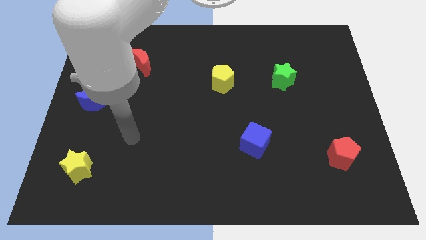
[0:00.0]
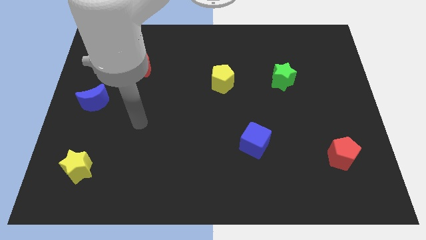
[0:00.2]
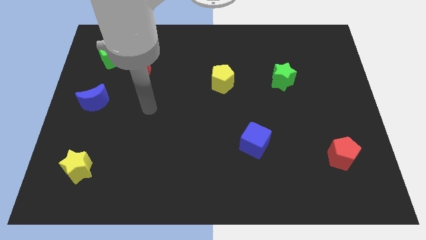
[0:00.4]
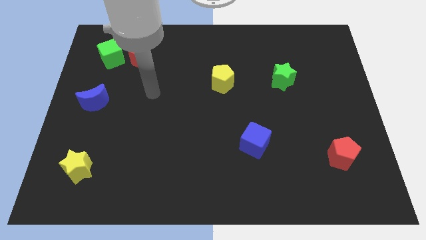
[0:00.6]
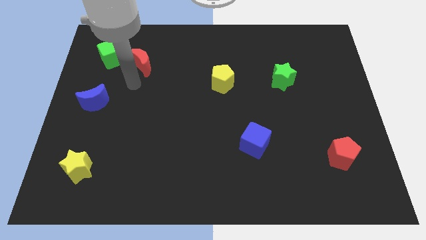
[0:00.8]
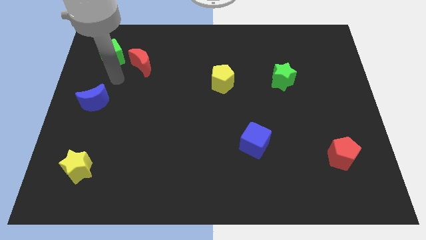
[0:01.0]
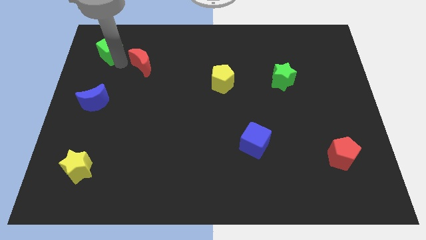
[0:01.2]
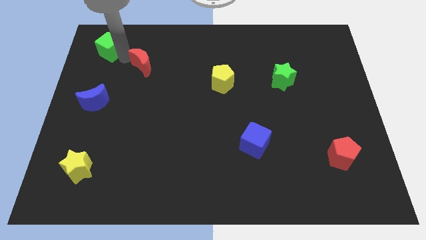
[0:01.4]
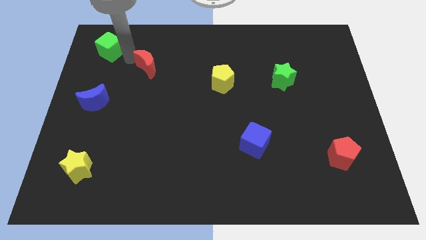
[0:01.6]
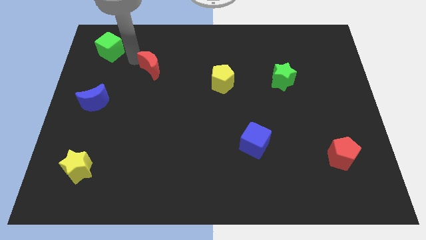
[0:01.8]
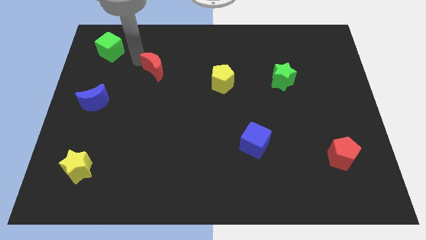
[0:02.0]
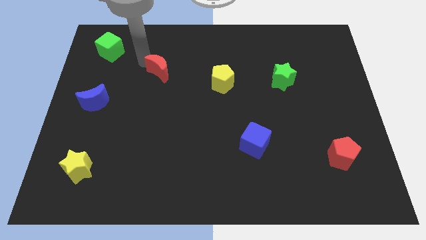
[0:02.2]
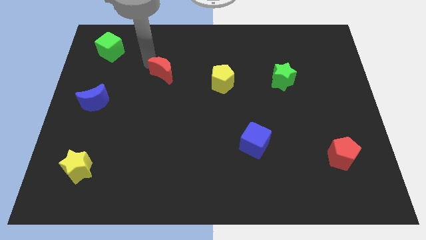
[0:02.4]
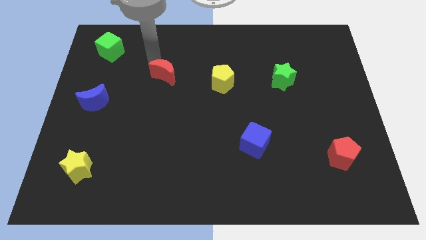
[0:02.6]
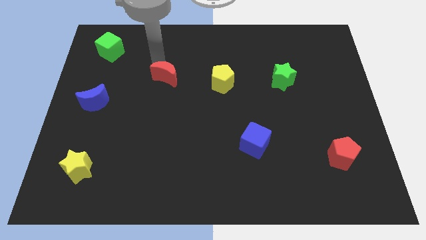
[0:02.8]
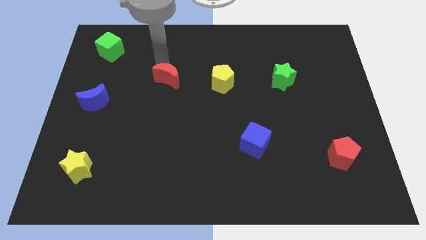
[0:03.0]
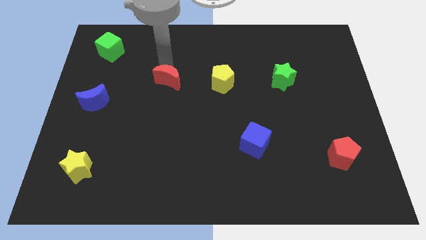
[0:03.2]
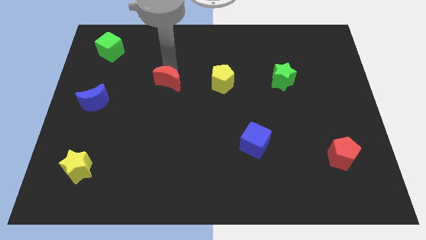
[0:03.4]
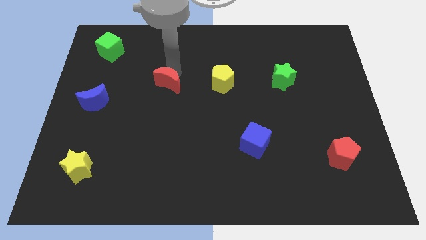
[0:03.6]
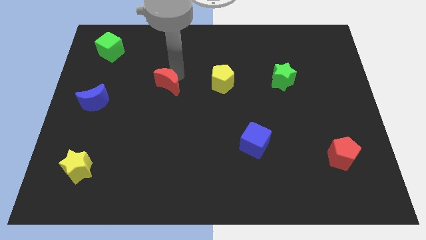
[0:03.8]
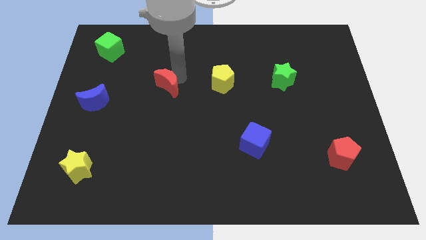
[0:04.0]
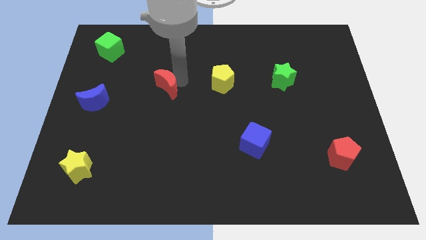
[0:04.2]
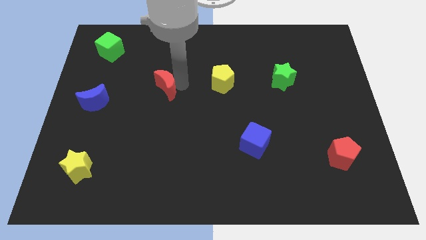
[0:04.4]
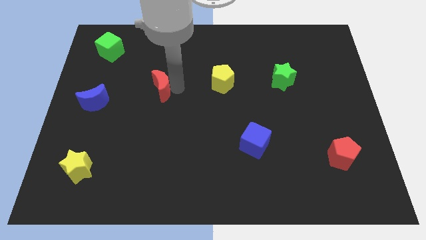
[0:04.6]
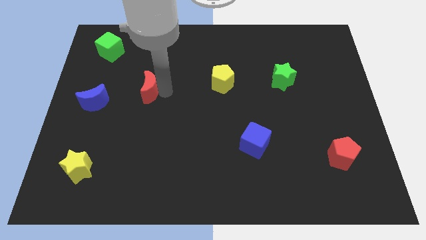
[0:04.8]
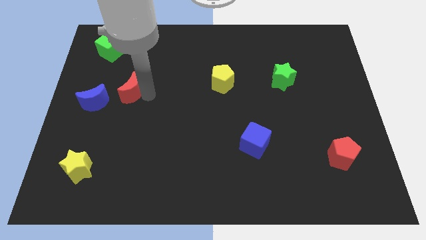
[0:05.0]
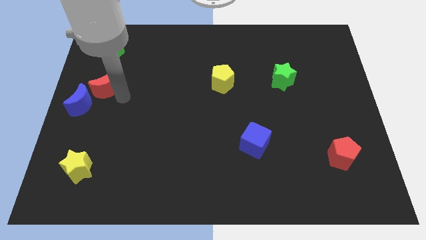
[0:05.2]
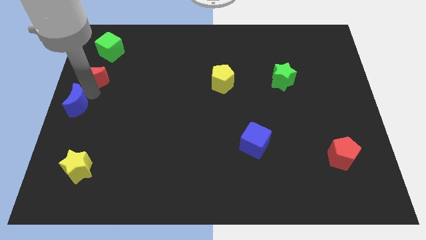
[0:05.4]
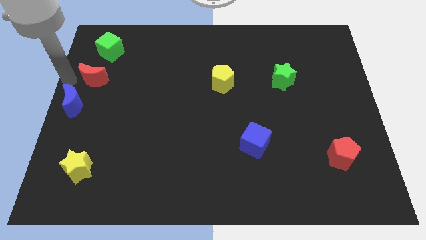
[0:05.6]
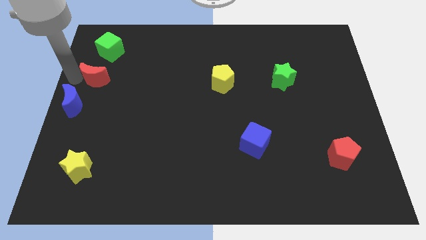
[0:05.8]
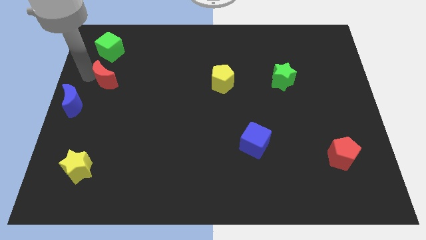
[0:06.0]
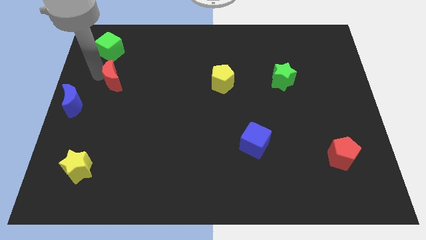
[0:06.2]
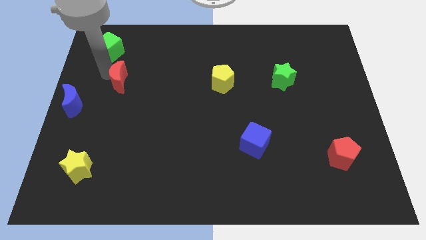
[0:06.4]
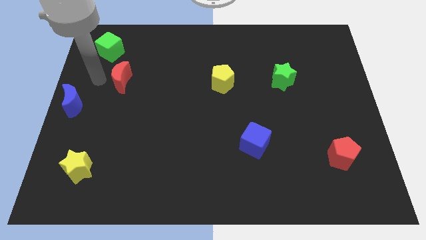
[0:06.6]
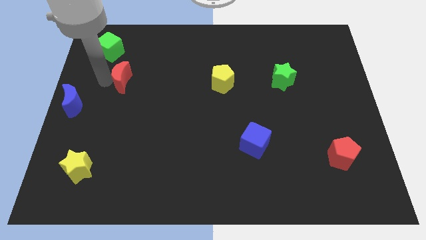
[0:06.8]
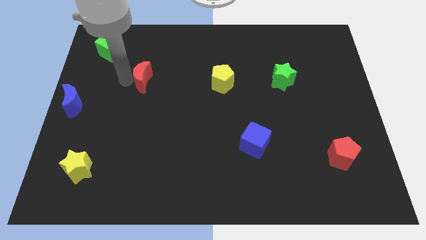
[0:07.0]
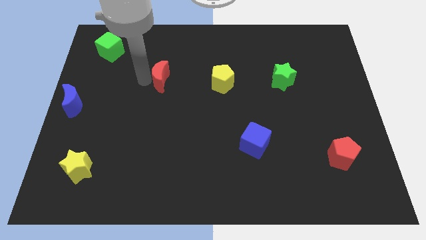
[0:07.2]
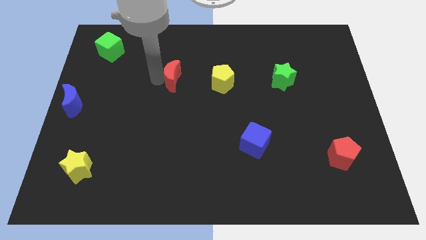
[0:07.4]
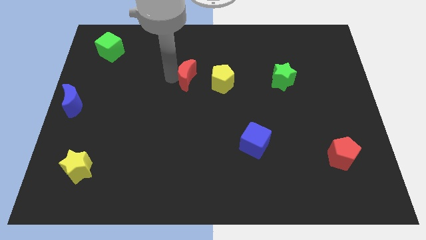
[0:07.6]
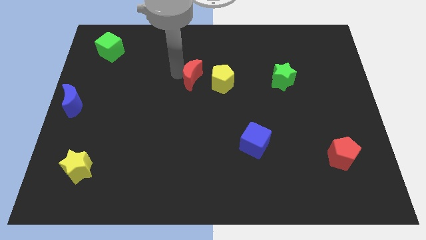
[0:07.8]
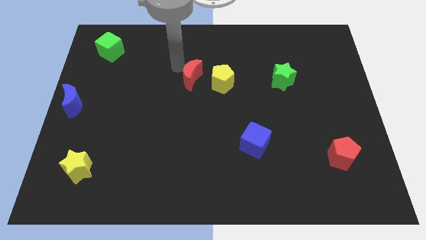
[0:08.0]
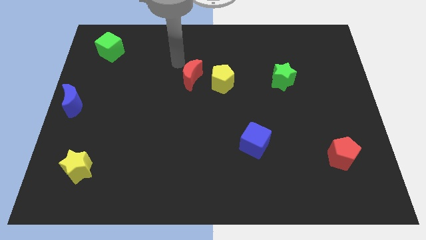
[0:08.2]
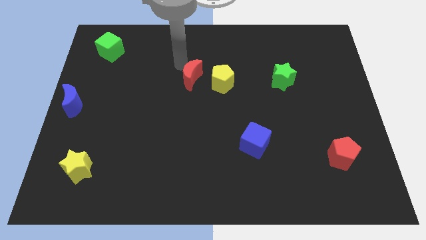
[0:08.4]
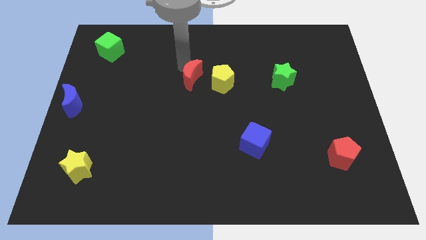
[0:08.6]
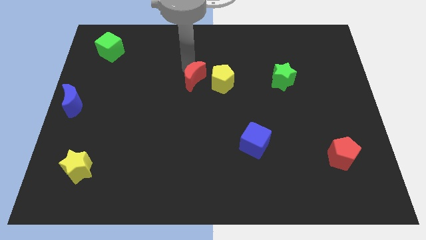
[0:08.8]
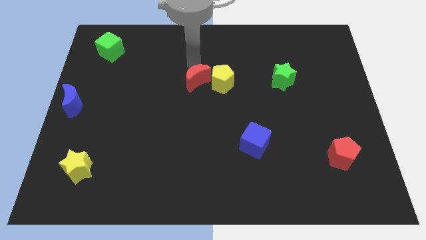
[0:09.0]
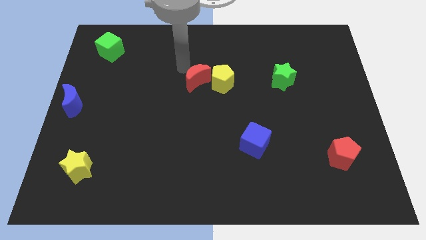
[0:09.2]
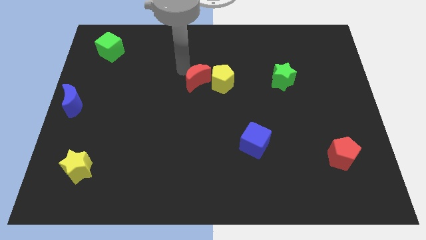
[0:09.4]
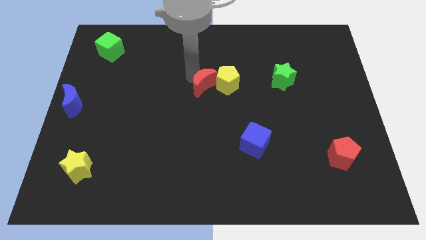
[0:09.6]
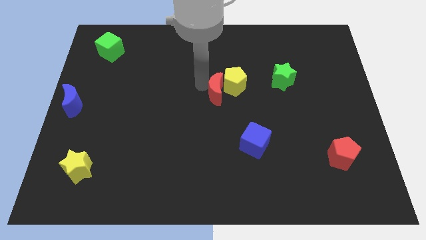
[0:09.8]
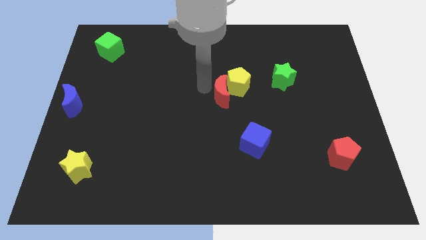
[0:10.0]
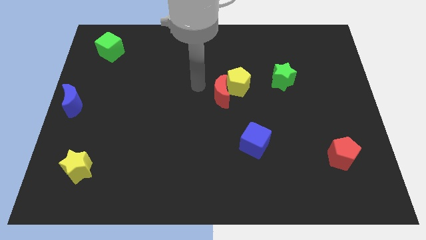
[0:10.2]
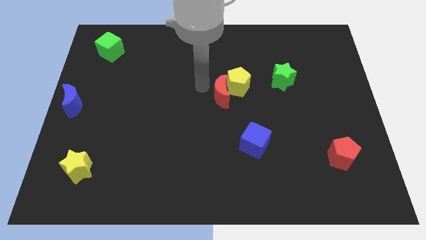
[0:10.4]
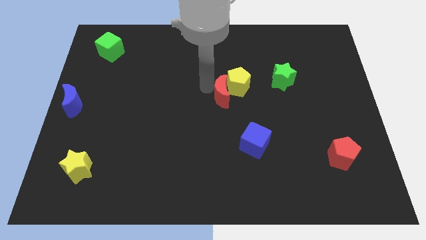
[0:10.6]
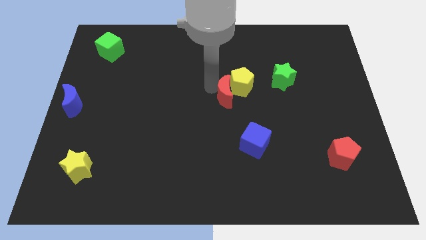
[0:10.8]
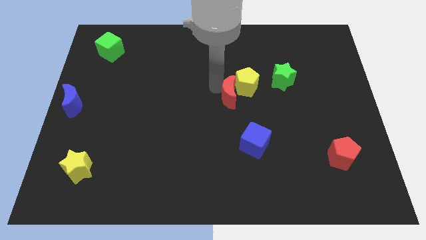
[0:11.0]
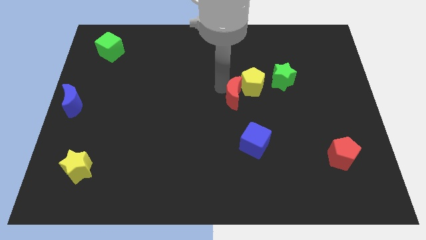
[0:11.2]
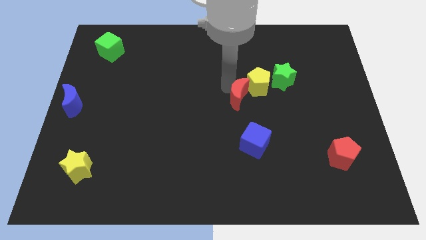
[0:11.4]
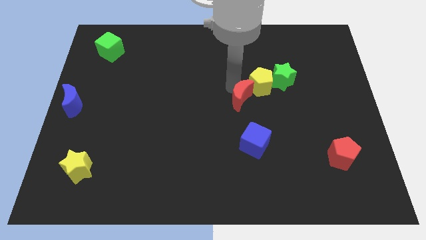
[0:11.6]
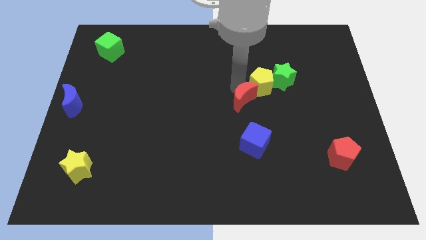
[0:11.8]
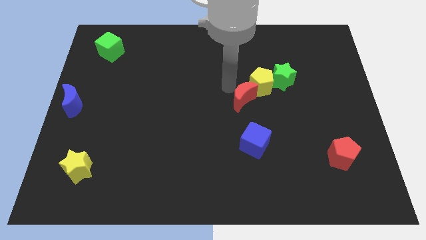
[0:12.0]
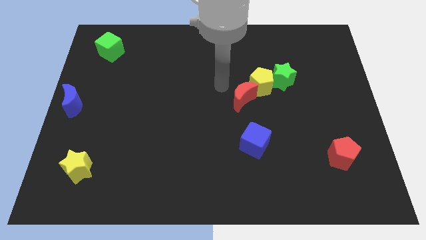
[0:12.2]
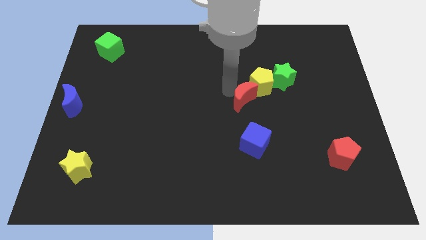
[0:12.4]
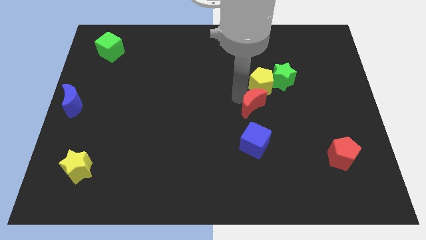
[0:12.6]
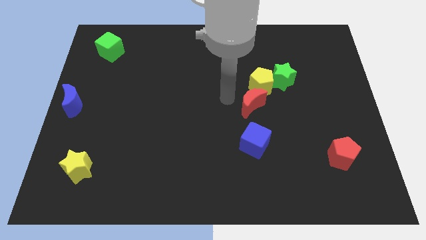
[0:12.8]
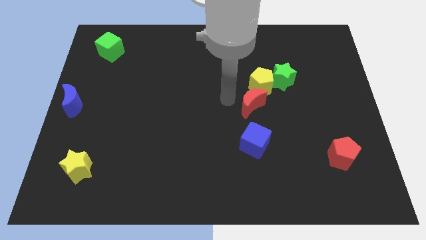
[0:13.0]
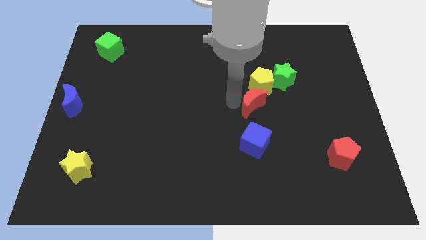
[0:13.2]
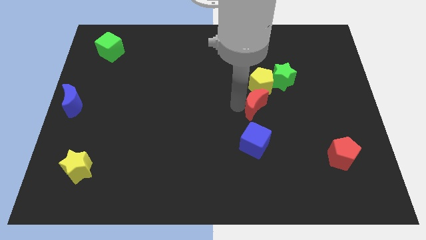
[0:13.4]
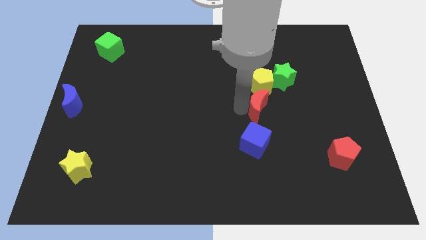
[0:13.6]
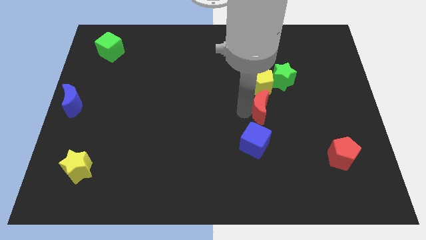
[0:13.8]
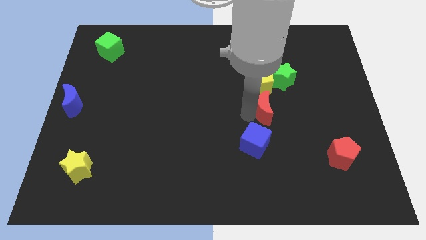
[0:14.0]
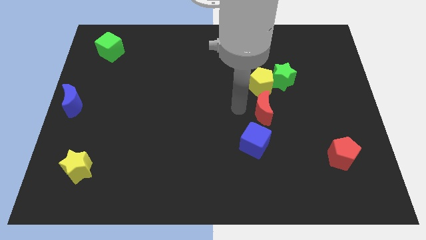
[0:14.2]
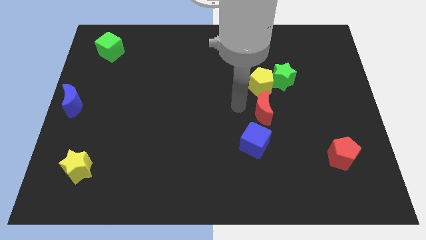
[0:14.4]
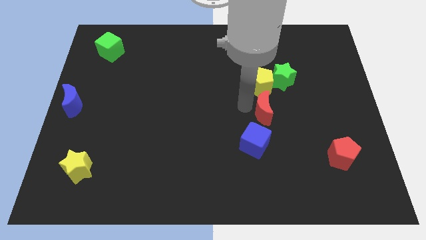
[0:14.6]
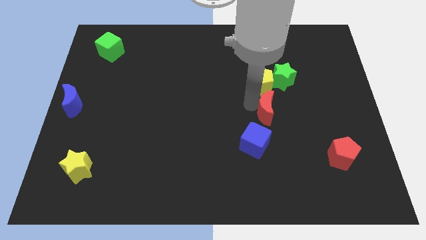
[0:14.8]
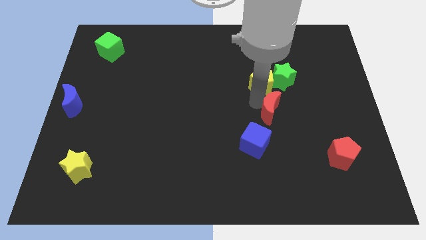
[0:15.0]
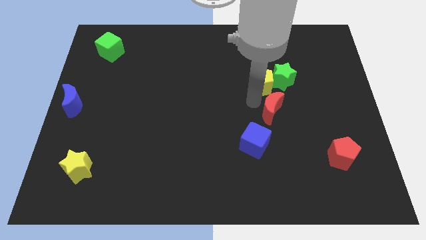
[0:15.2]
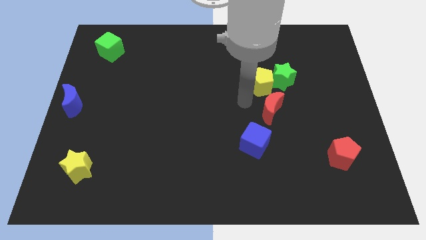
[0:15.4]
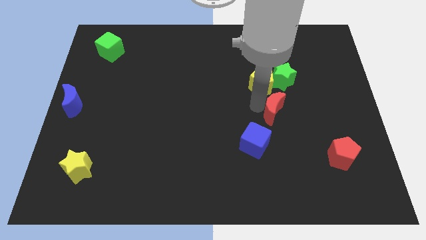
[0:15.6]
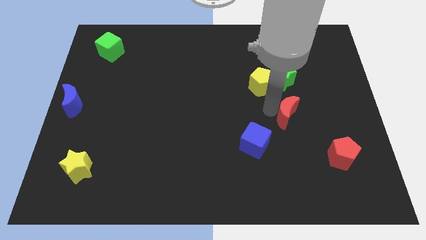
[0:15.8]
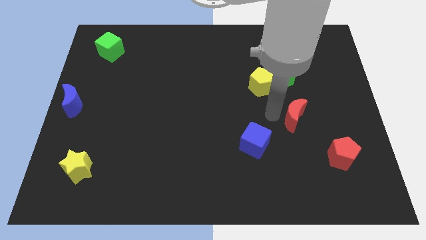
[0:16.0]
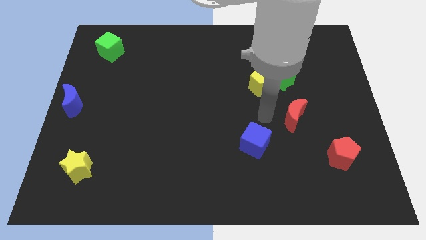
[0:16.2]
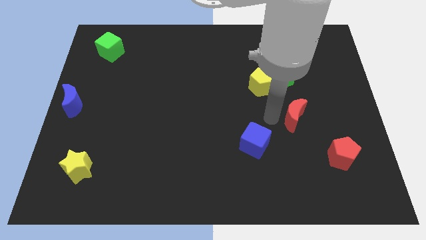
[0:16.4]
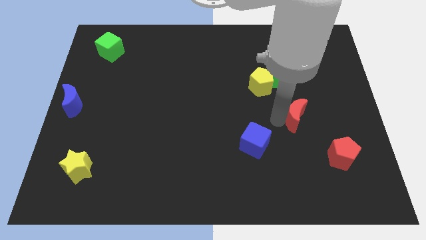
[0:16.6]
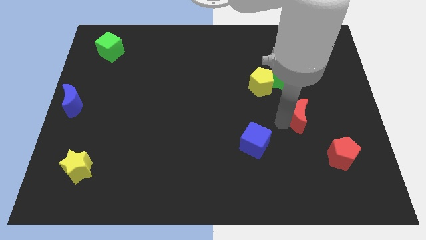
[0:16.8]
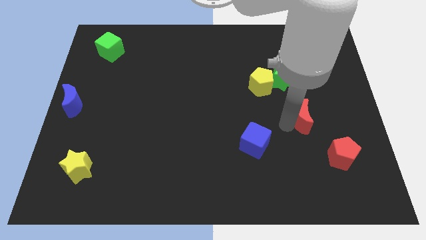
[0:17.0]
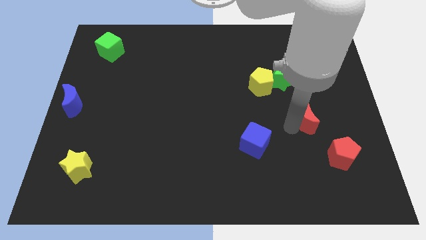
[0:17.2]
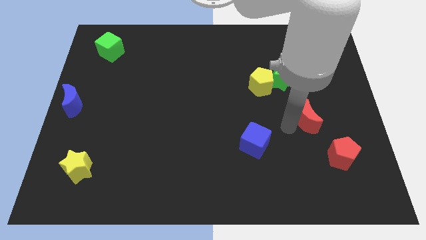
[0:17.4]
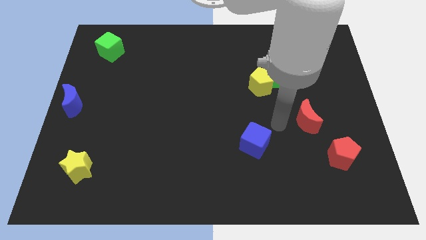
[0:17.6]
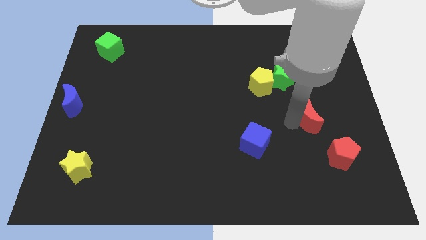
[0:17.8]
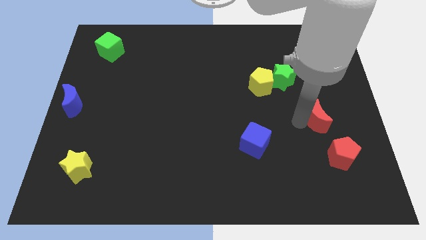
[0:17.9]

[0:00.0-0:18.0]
slide the red moon to the top side of the red pentagon
